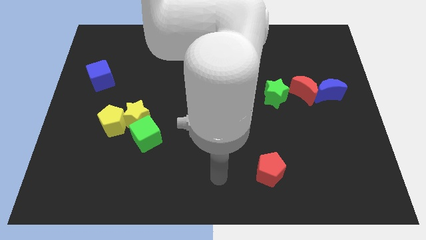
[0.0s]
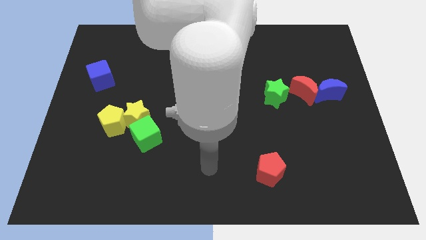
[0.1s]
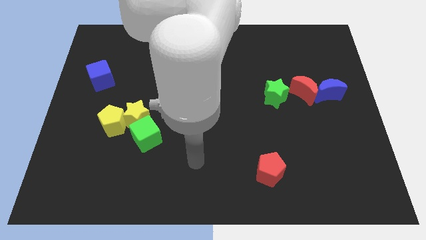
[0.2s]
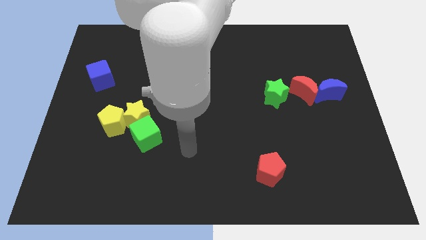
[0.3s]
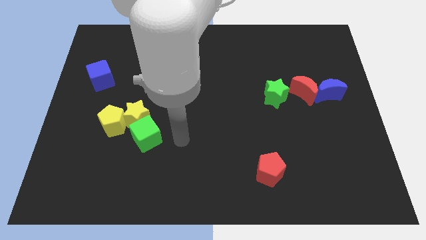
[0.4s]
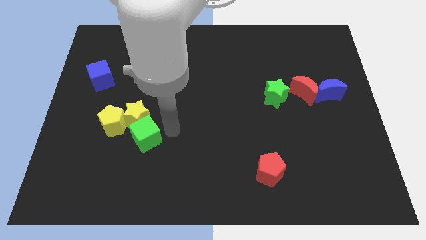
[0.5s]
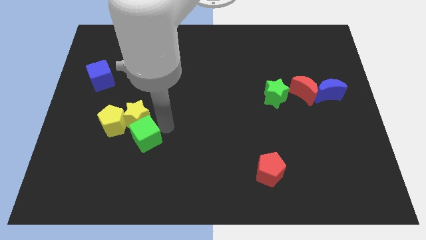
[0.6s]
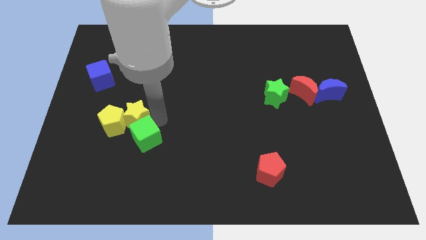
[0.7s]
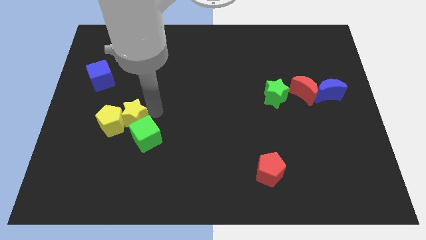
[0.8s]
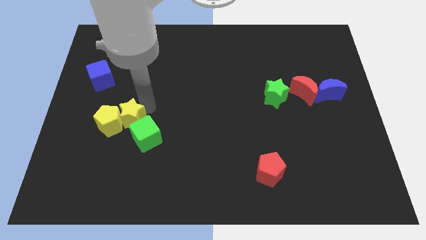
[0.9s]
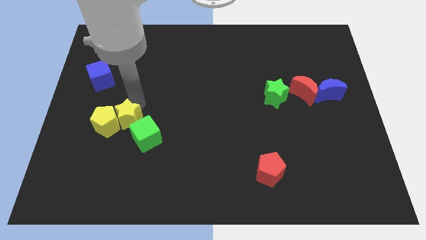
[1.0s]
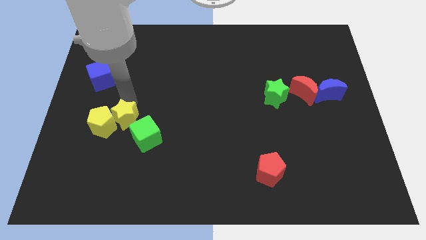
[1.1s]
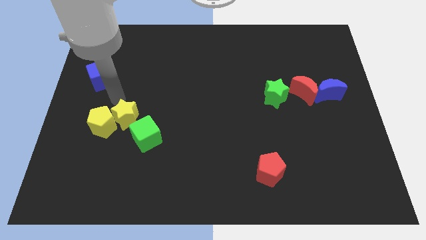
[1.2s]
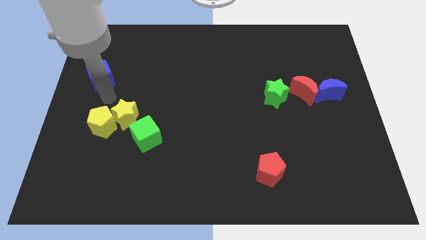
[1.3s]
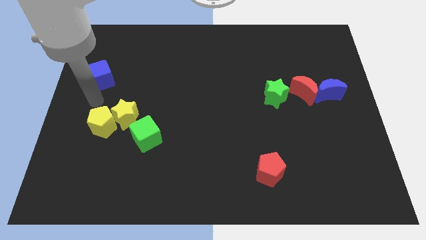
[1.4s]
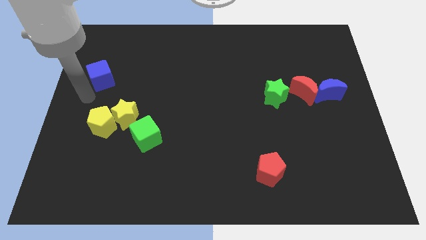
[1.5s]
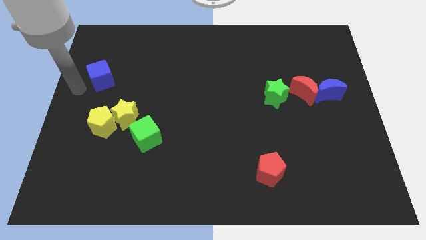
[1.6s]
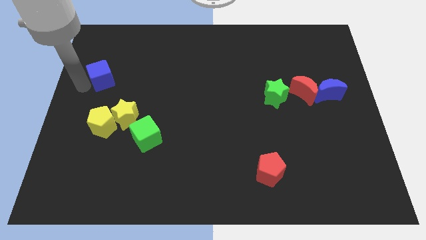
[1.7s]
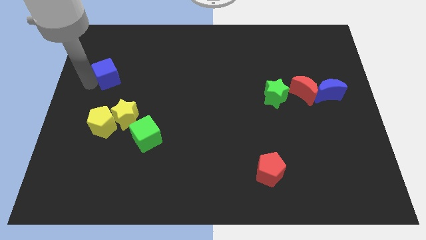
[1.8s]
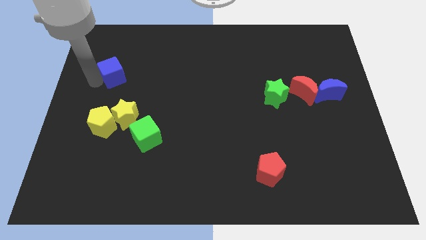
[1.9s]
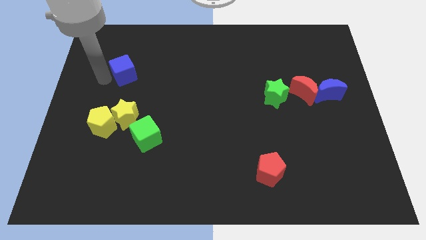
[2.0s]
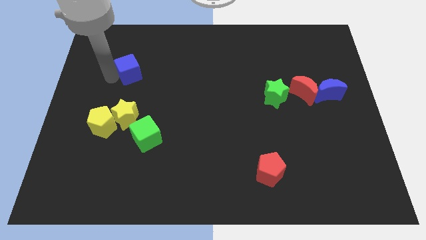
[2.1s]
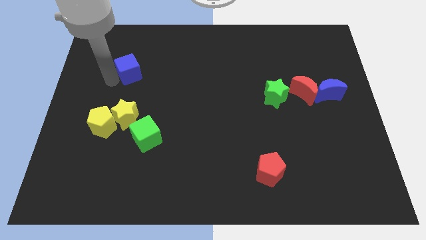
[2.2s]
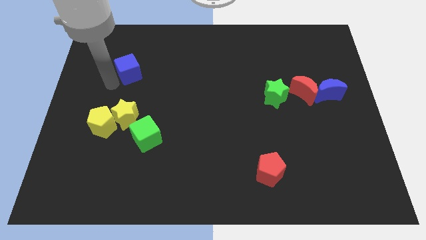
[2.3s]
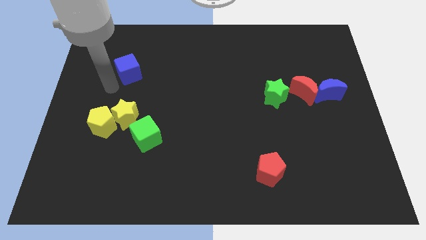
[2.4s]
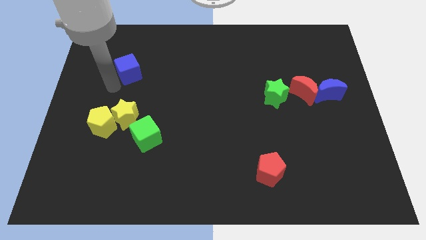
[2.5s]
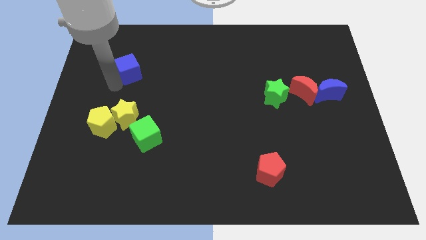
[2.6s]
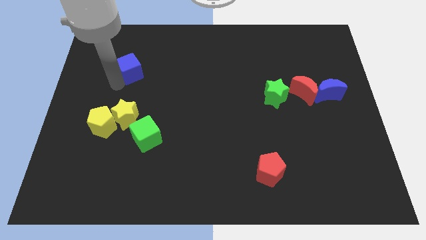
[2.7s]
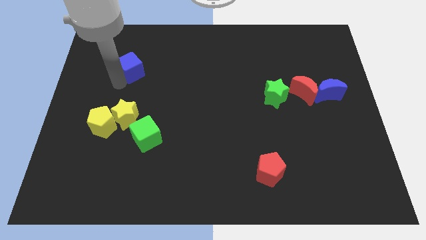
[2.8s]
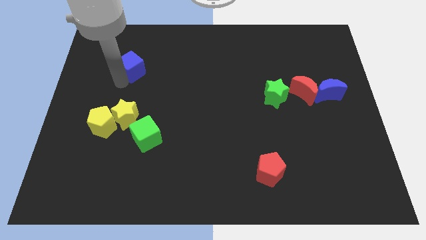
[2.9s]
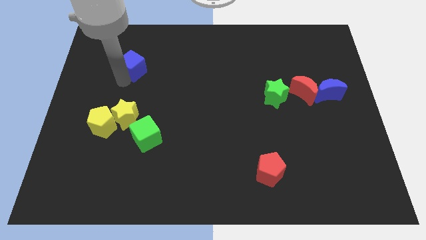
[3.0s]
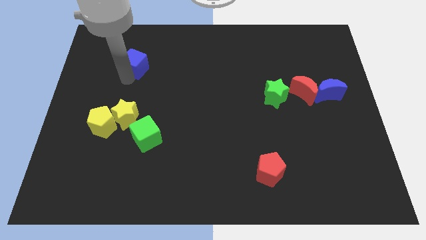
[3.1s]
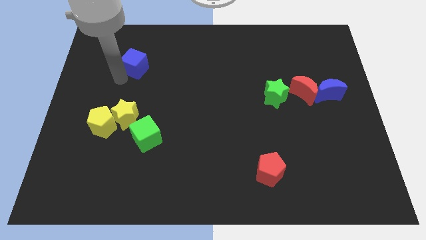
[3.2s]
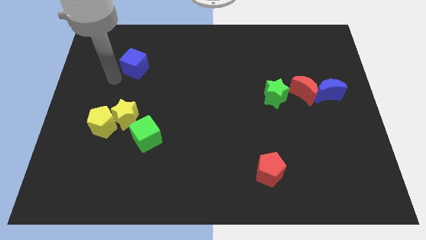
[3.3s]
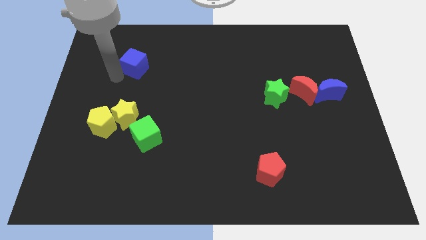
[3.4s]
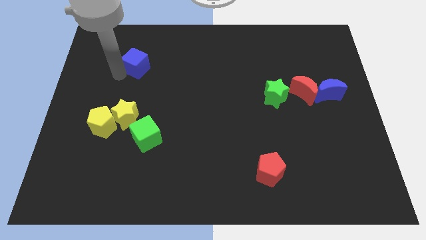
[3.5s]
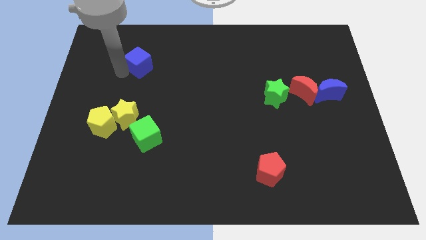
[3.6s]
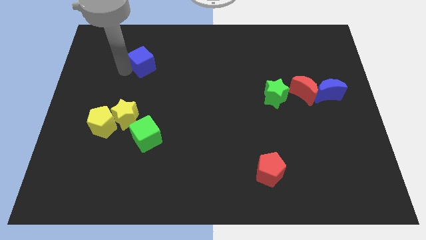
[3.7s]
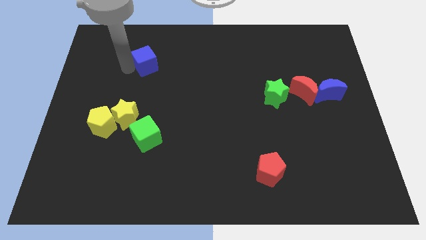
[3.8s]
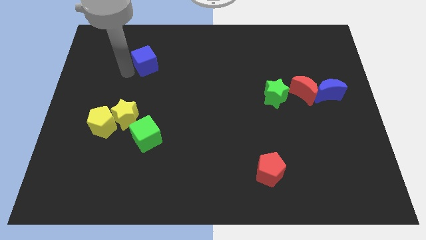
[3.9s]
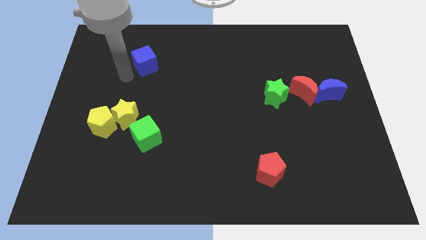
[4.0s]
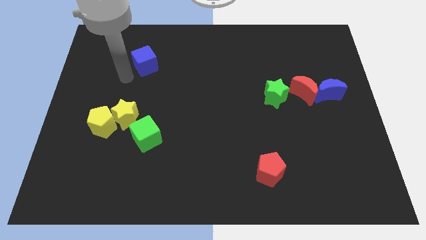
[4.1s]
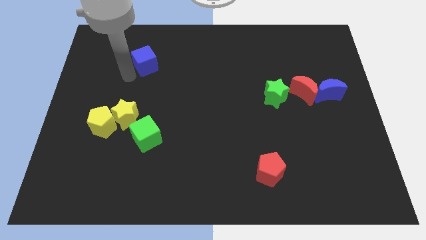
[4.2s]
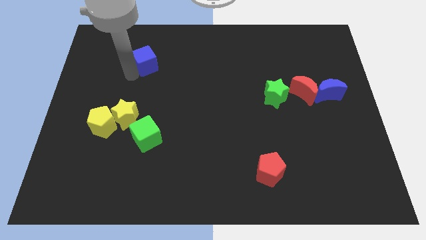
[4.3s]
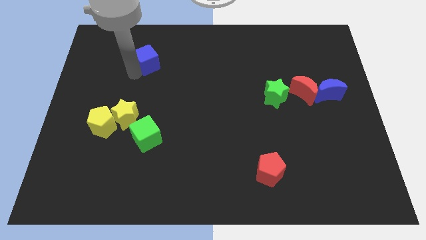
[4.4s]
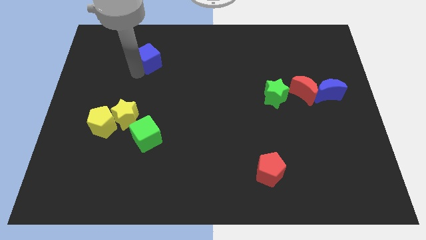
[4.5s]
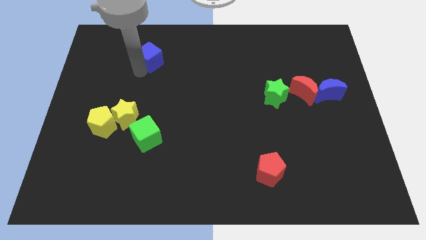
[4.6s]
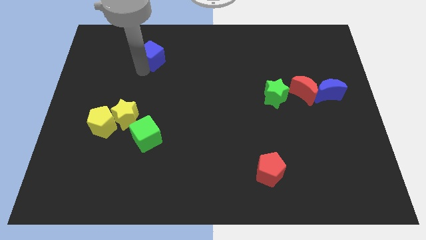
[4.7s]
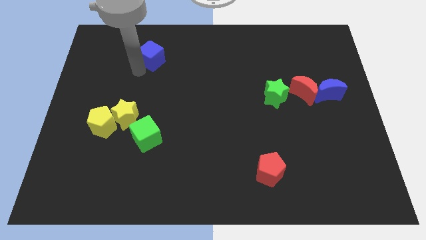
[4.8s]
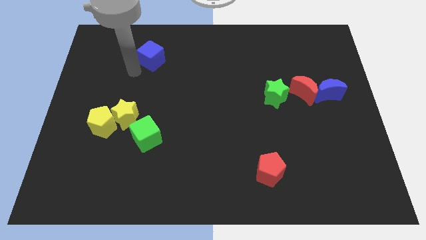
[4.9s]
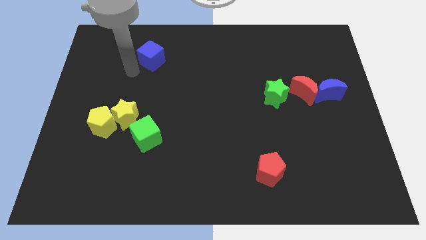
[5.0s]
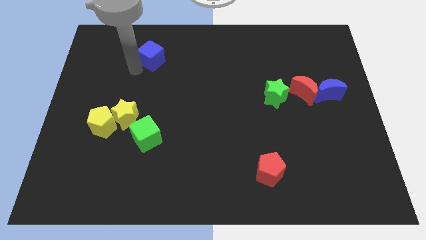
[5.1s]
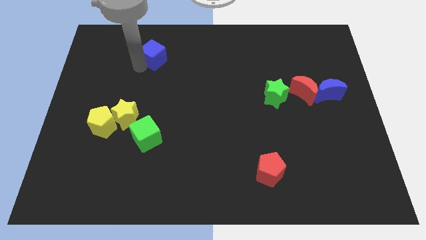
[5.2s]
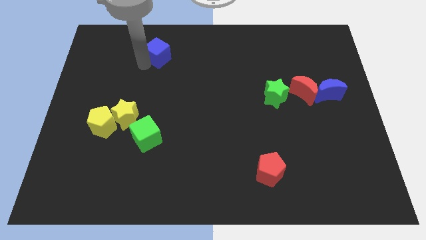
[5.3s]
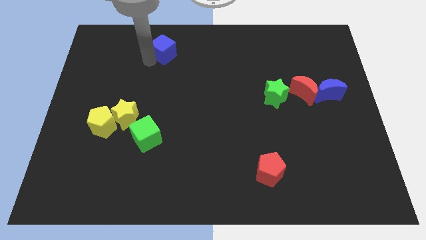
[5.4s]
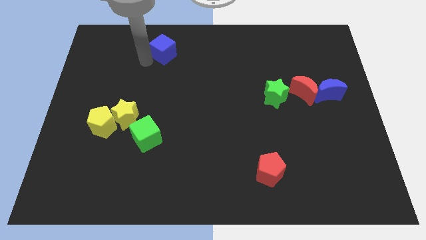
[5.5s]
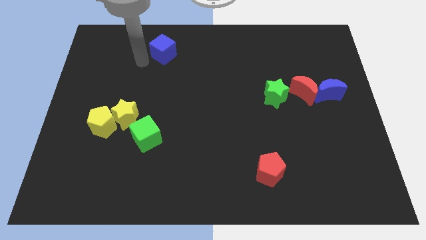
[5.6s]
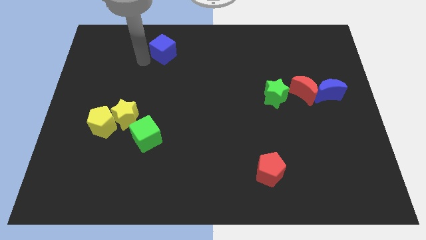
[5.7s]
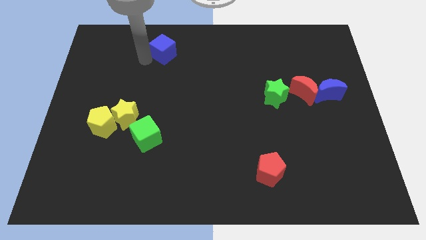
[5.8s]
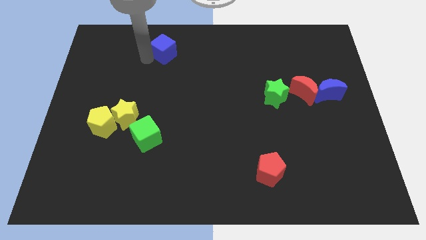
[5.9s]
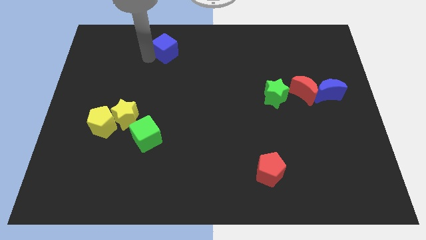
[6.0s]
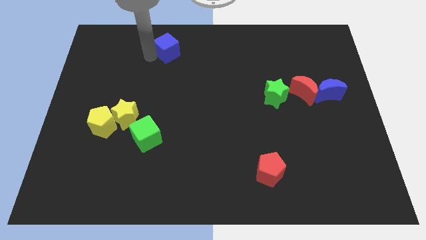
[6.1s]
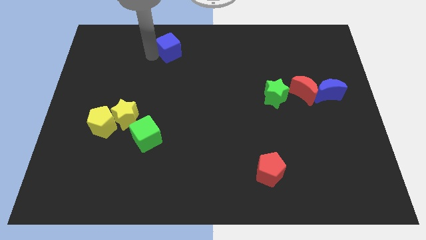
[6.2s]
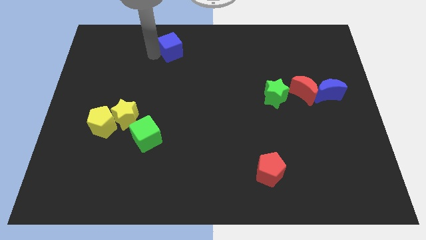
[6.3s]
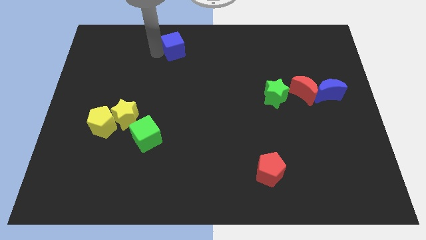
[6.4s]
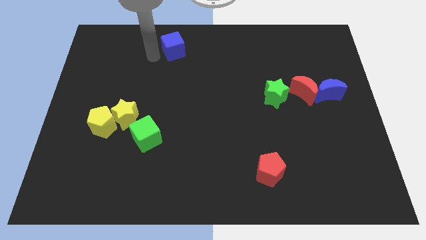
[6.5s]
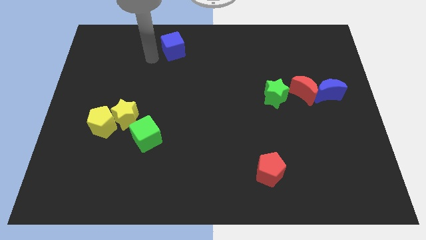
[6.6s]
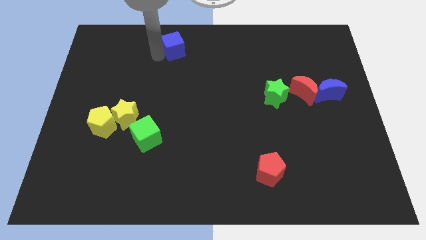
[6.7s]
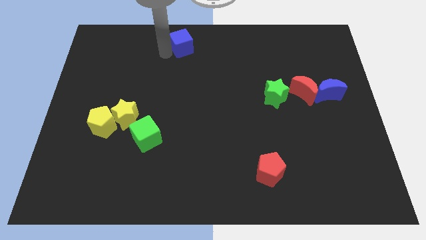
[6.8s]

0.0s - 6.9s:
move the blue cube to the top
